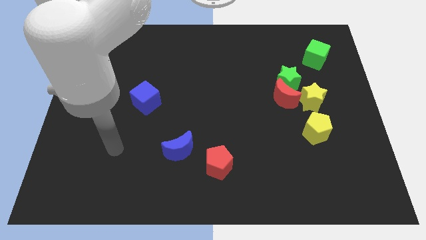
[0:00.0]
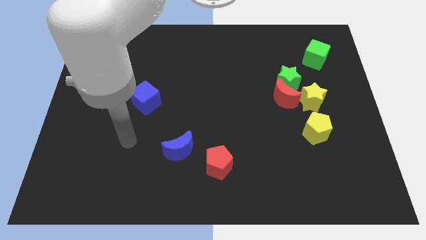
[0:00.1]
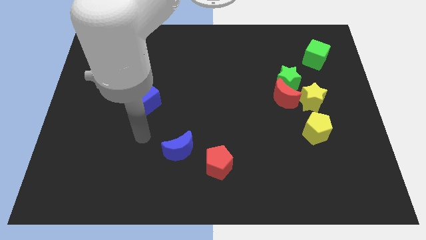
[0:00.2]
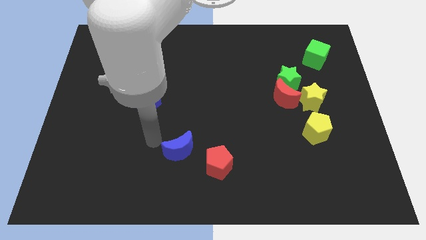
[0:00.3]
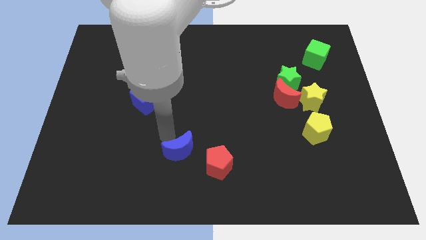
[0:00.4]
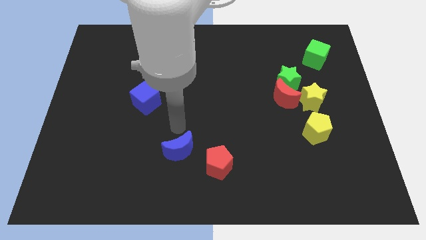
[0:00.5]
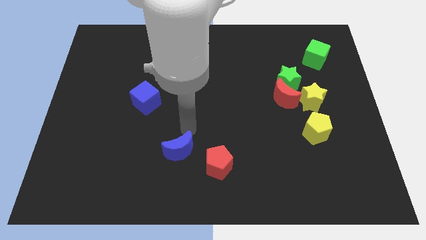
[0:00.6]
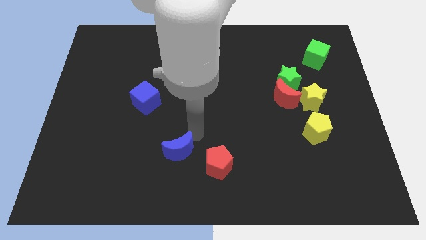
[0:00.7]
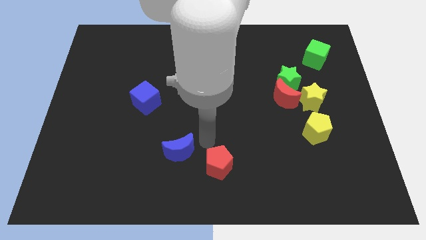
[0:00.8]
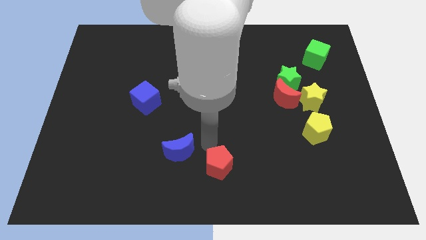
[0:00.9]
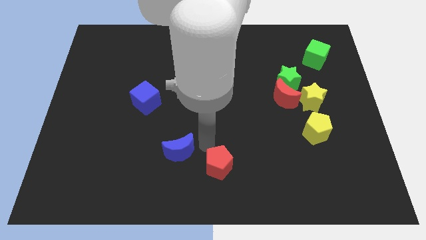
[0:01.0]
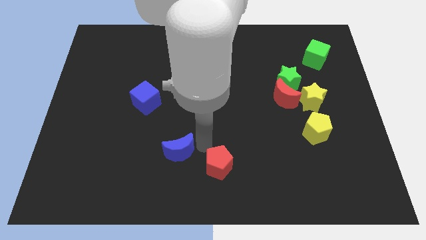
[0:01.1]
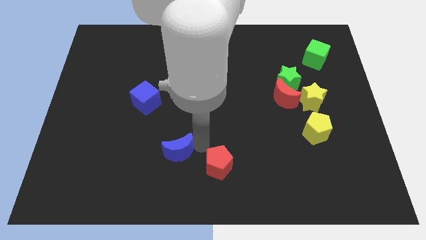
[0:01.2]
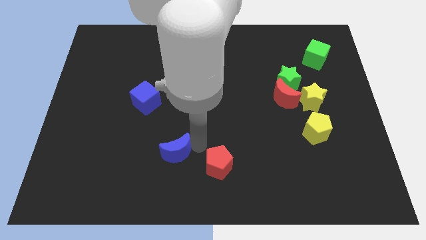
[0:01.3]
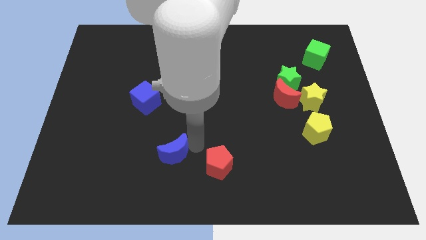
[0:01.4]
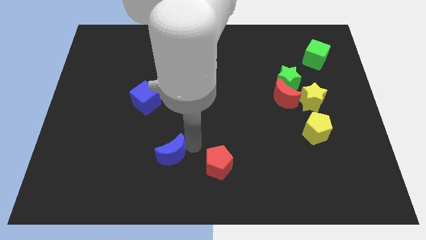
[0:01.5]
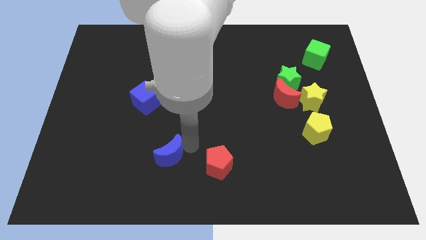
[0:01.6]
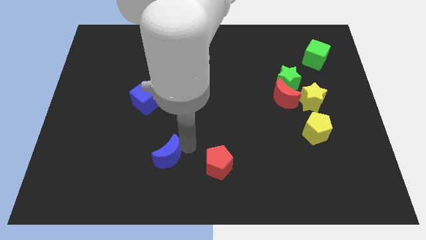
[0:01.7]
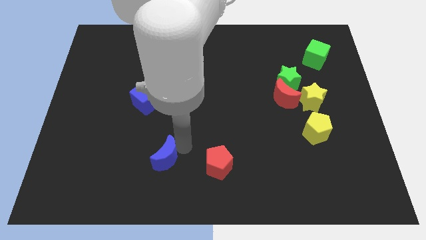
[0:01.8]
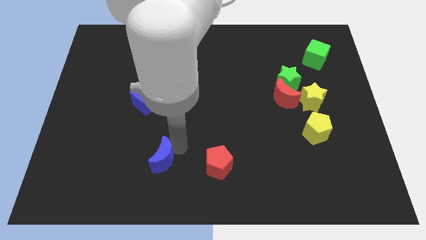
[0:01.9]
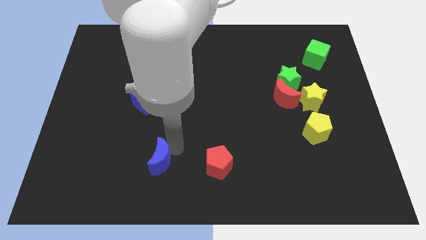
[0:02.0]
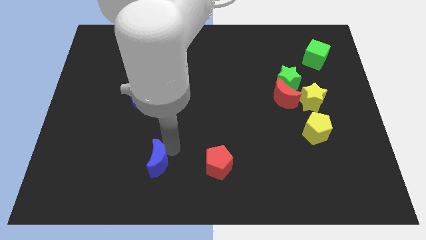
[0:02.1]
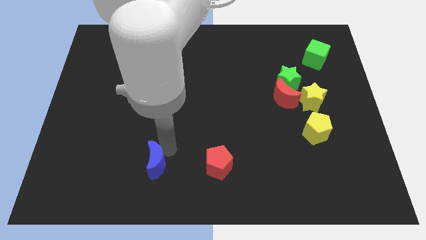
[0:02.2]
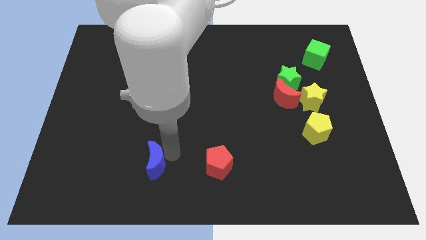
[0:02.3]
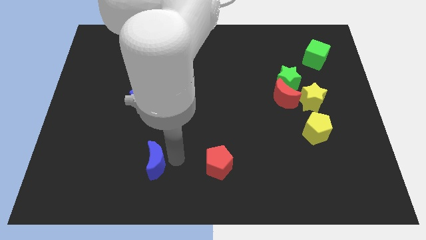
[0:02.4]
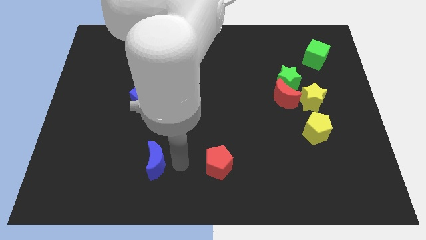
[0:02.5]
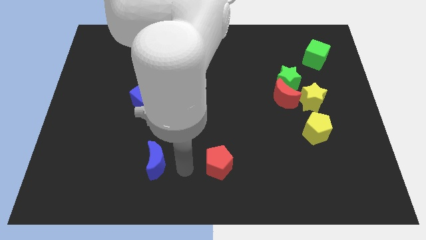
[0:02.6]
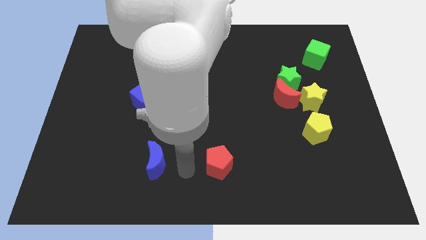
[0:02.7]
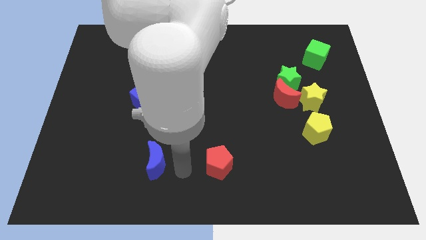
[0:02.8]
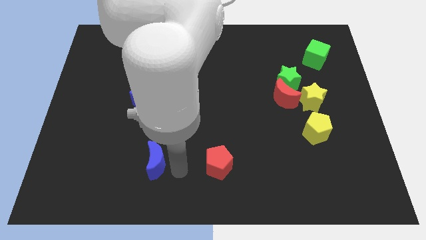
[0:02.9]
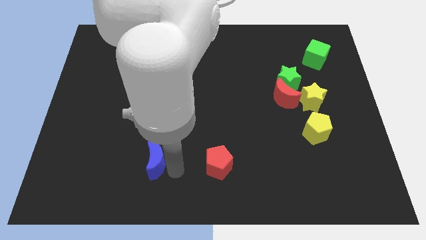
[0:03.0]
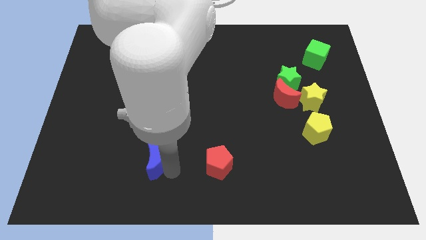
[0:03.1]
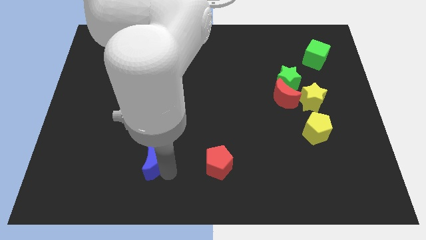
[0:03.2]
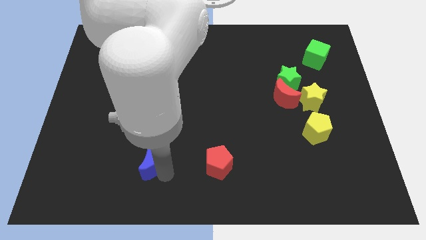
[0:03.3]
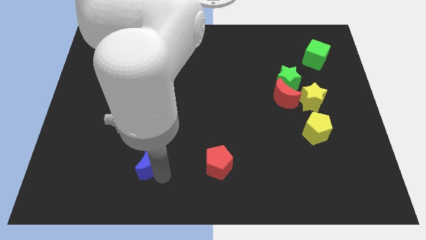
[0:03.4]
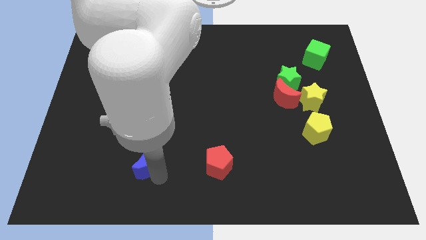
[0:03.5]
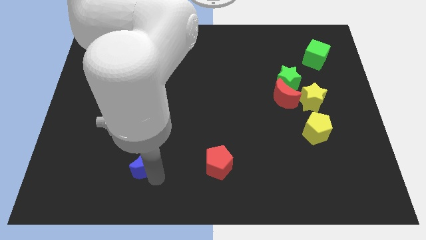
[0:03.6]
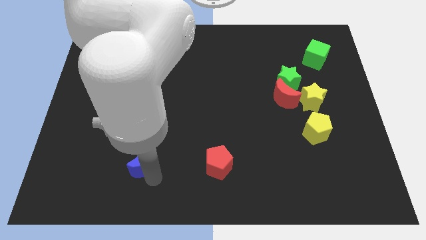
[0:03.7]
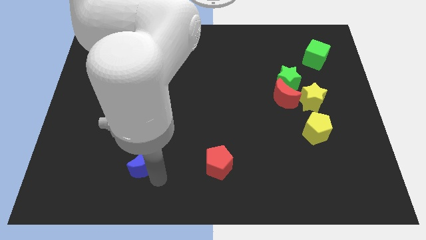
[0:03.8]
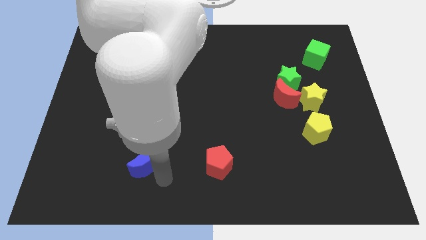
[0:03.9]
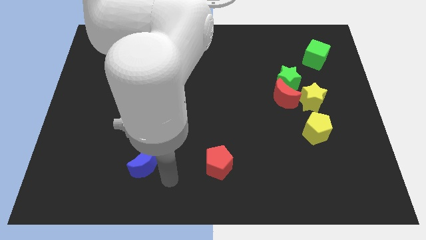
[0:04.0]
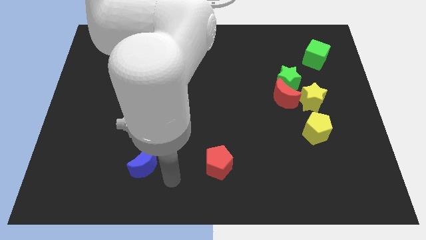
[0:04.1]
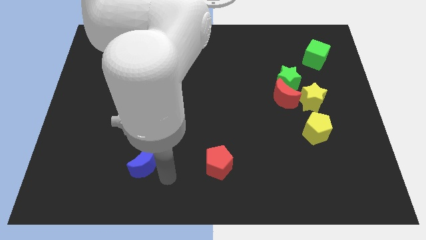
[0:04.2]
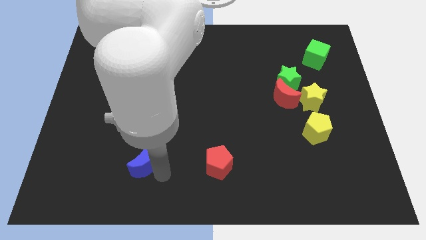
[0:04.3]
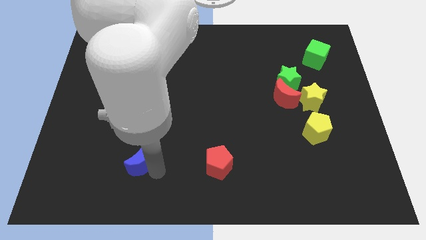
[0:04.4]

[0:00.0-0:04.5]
move the blue moon somewhat to the left

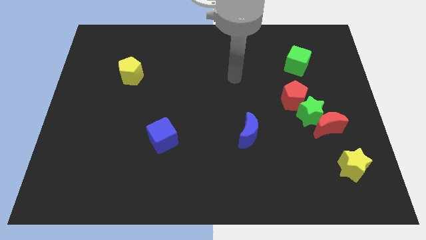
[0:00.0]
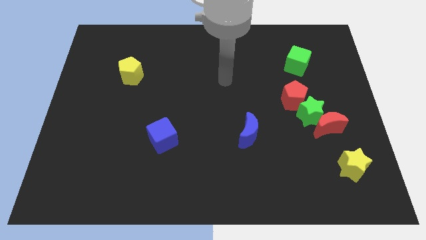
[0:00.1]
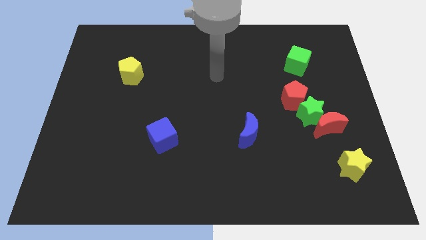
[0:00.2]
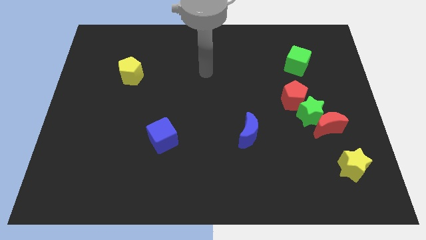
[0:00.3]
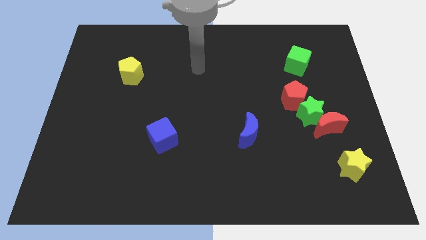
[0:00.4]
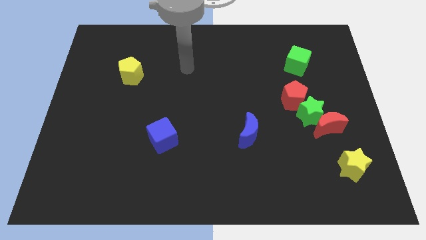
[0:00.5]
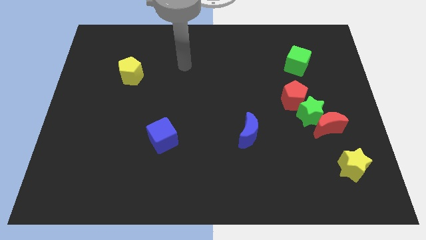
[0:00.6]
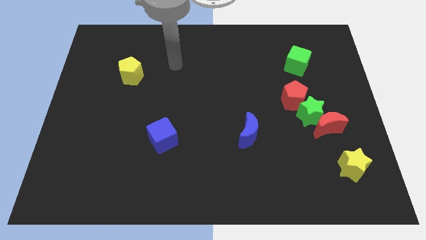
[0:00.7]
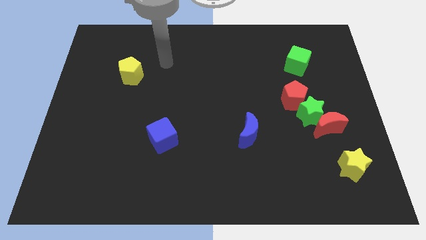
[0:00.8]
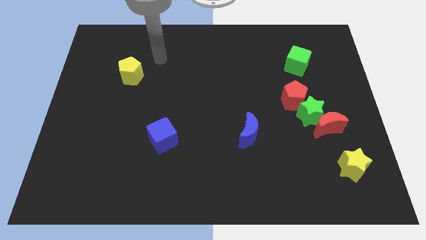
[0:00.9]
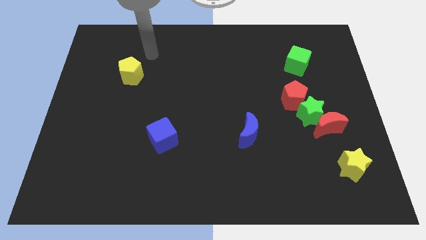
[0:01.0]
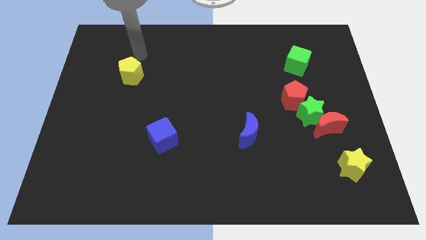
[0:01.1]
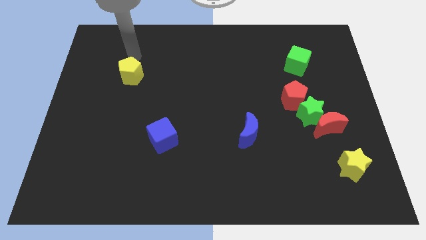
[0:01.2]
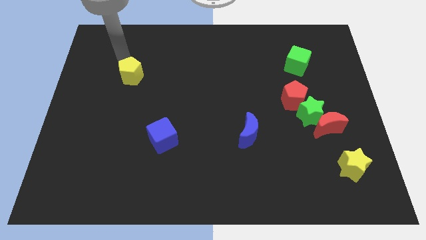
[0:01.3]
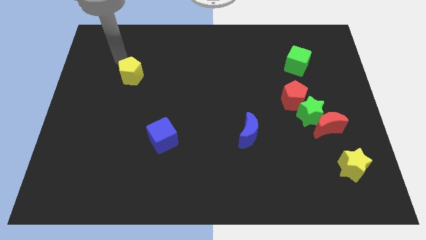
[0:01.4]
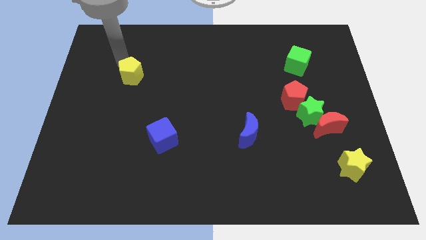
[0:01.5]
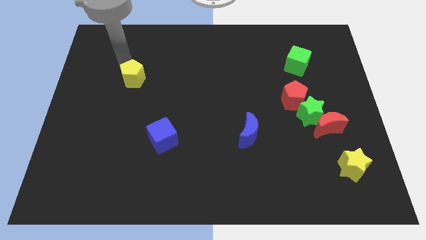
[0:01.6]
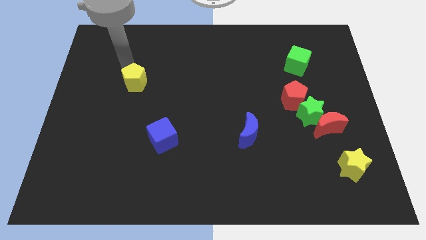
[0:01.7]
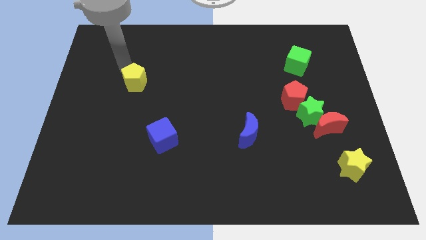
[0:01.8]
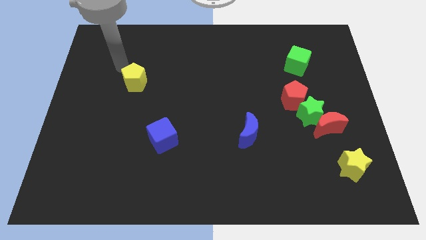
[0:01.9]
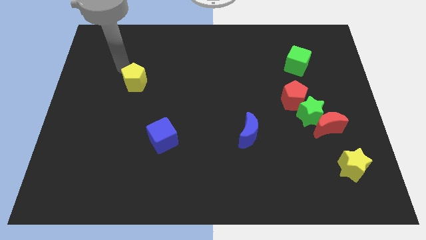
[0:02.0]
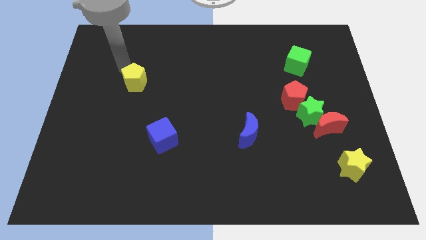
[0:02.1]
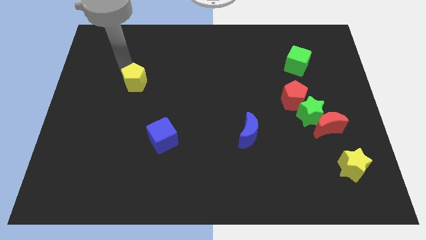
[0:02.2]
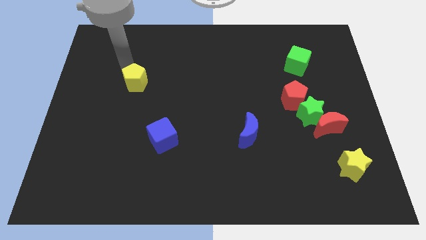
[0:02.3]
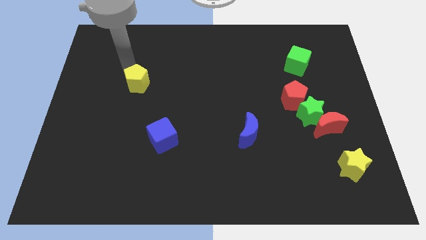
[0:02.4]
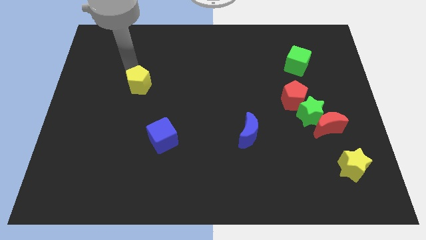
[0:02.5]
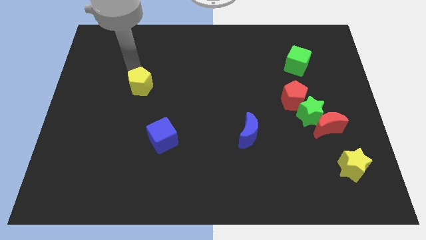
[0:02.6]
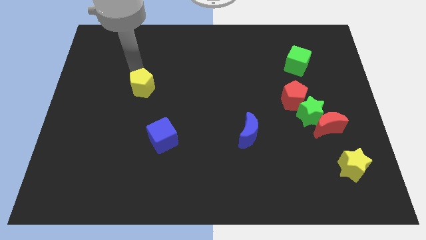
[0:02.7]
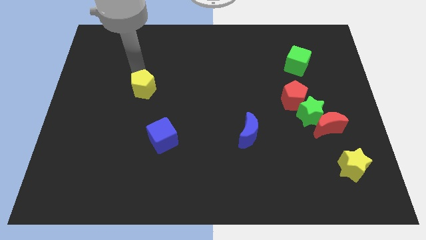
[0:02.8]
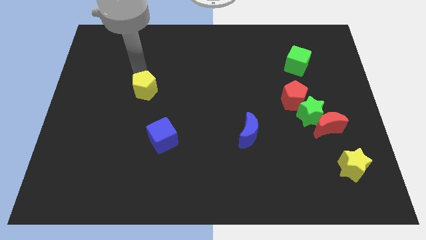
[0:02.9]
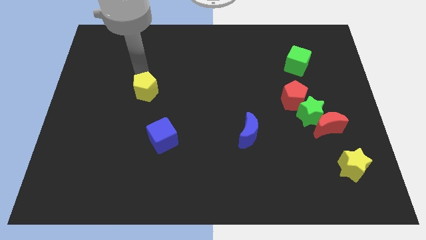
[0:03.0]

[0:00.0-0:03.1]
move the yellow pentagon a bit down and then to the right

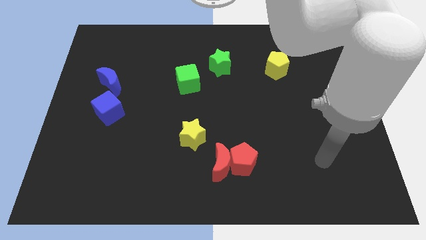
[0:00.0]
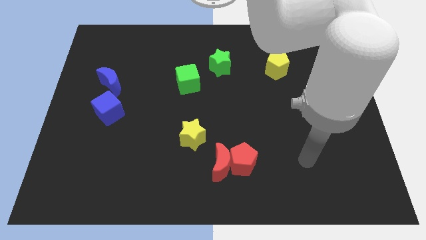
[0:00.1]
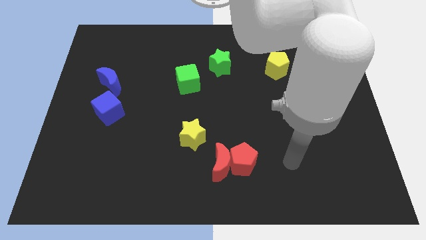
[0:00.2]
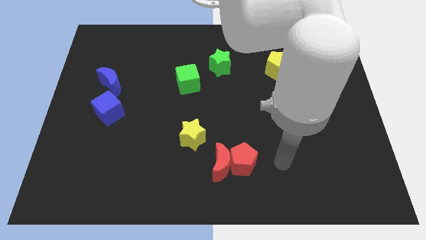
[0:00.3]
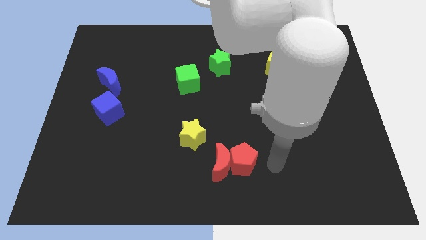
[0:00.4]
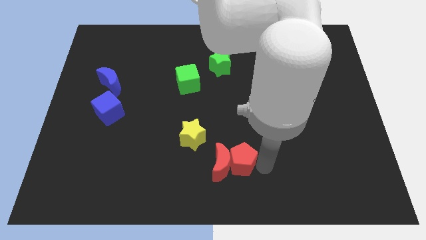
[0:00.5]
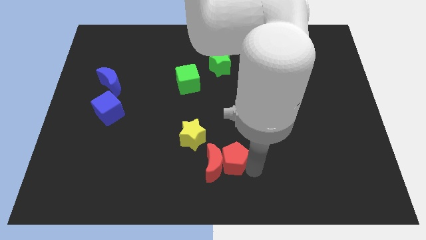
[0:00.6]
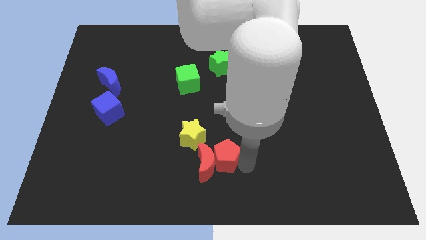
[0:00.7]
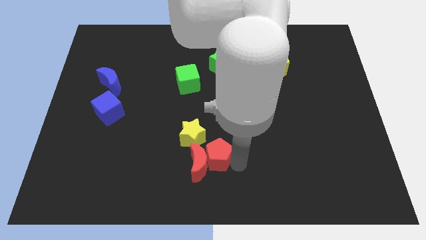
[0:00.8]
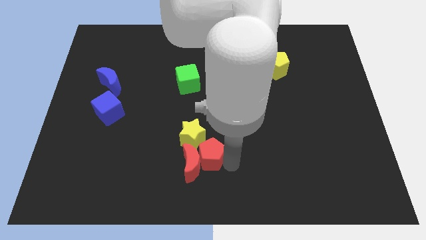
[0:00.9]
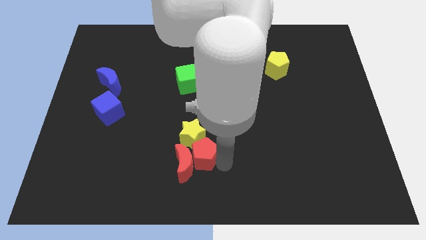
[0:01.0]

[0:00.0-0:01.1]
slightly push the red moon to the left
